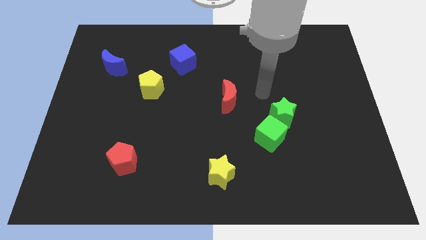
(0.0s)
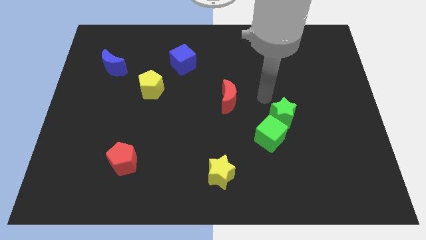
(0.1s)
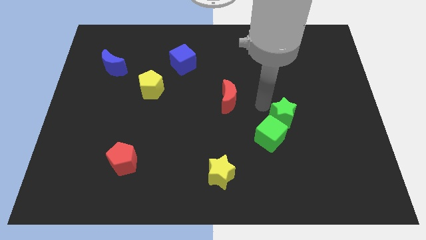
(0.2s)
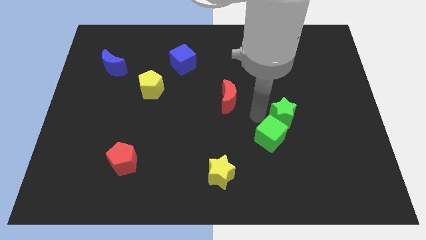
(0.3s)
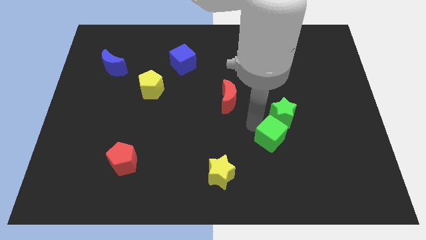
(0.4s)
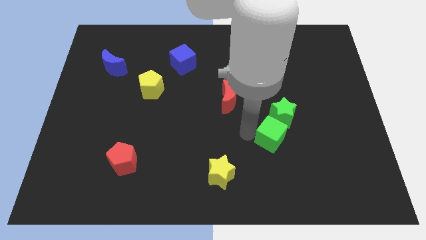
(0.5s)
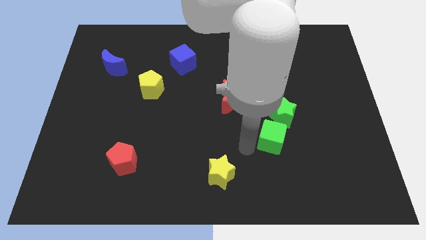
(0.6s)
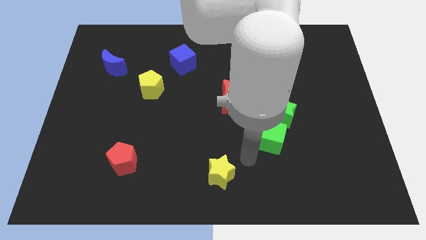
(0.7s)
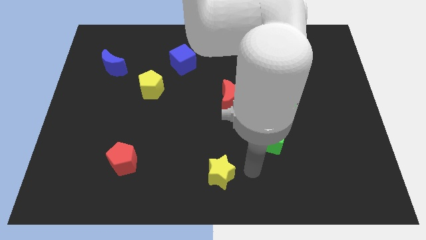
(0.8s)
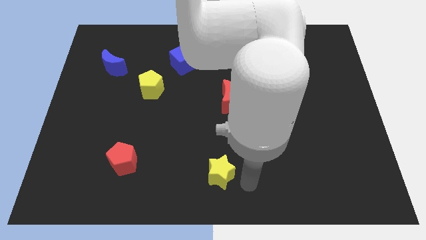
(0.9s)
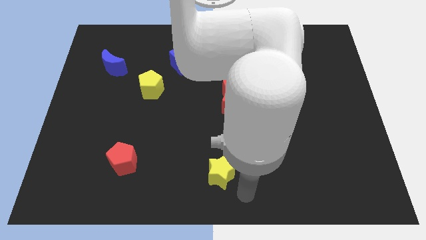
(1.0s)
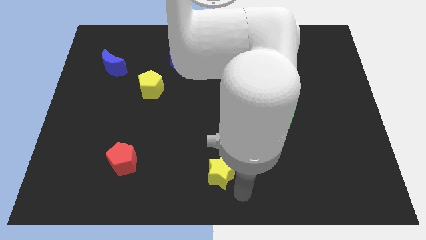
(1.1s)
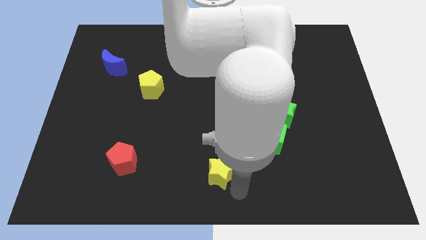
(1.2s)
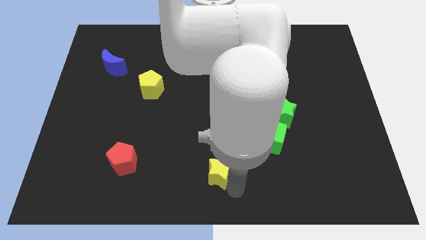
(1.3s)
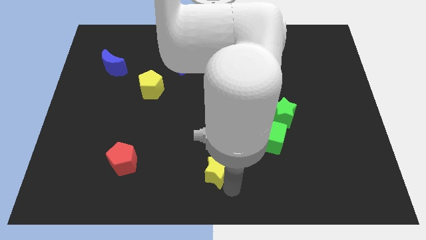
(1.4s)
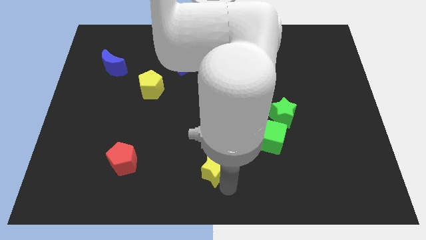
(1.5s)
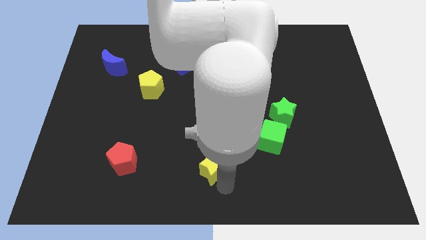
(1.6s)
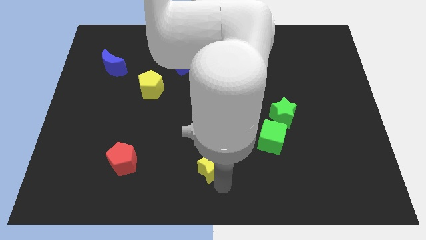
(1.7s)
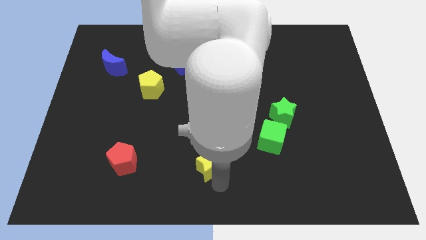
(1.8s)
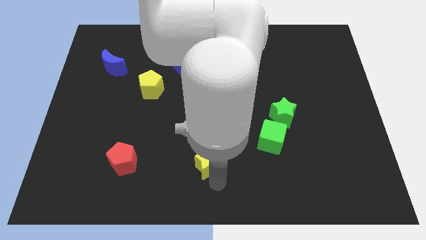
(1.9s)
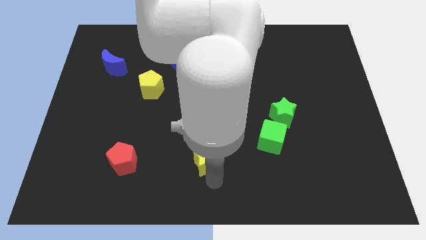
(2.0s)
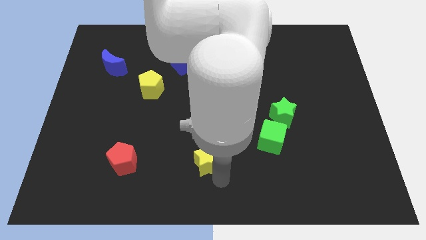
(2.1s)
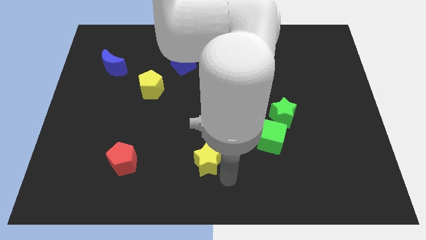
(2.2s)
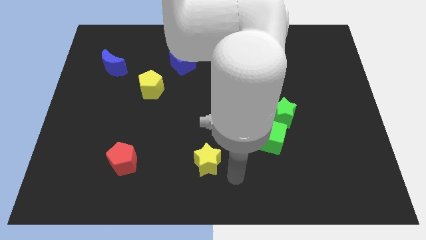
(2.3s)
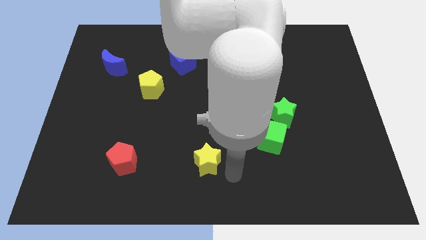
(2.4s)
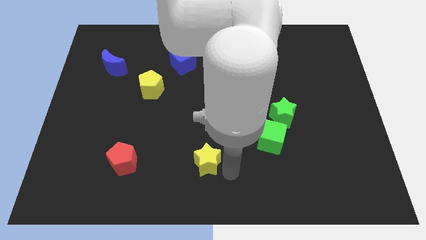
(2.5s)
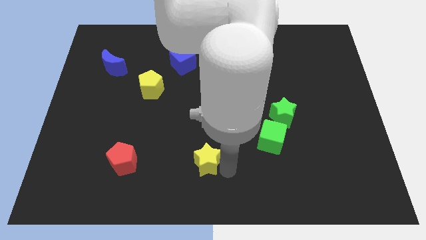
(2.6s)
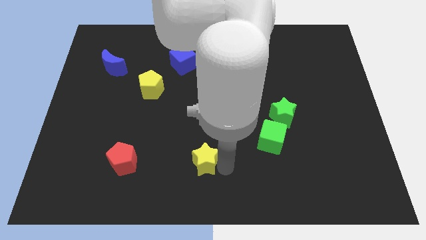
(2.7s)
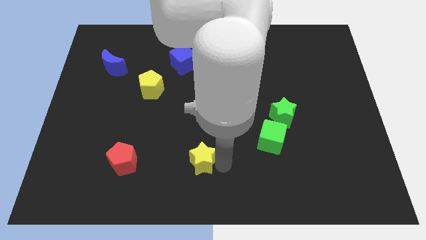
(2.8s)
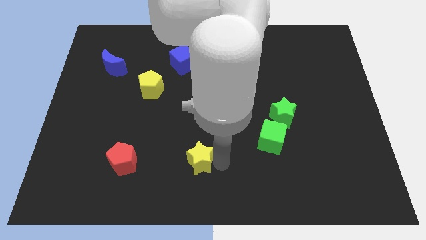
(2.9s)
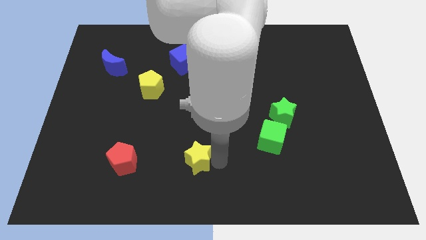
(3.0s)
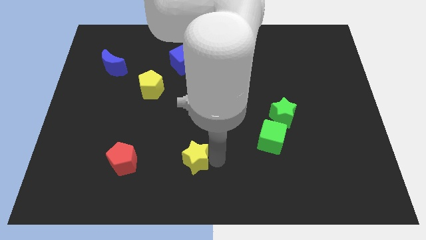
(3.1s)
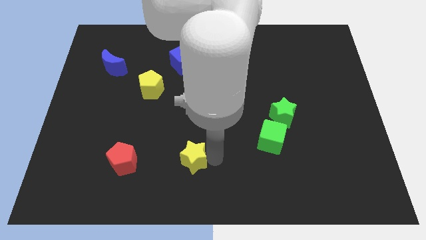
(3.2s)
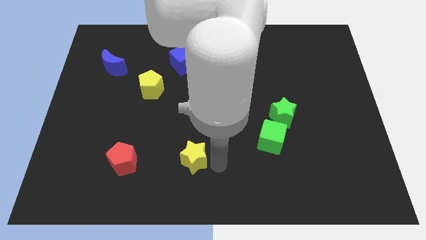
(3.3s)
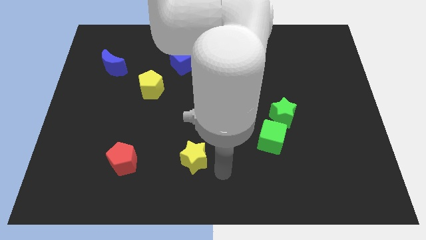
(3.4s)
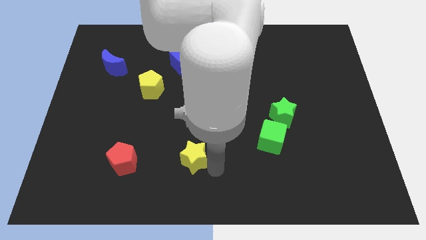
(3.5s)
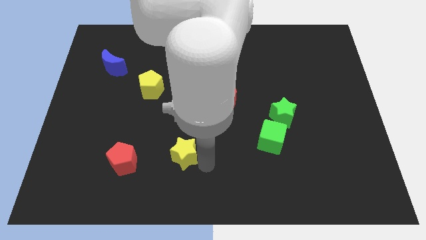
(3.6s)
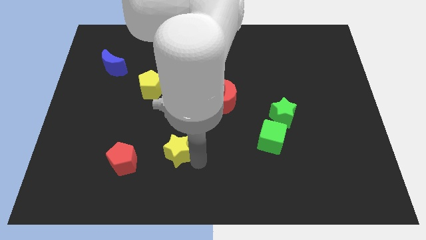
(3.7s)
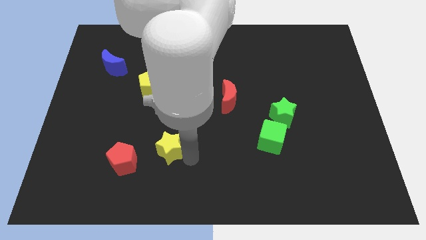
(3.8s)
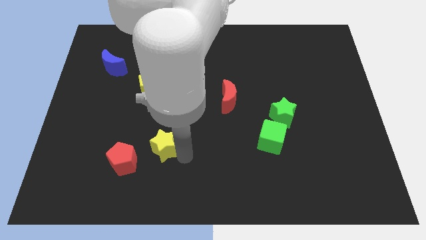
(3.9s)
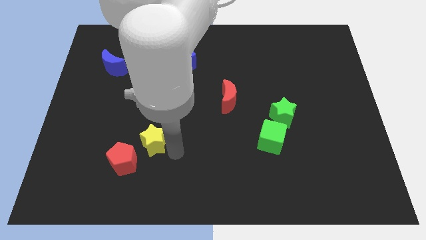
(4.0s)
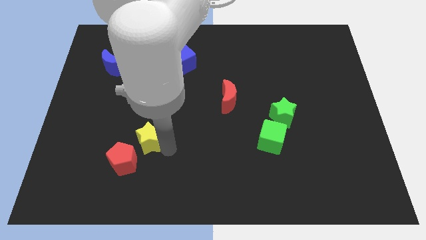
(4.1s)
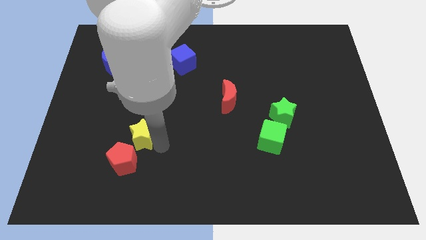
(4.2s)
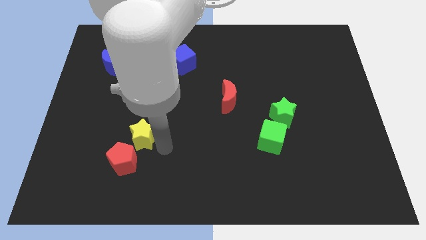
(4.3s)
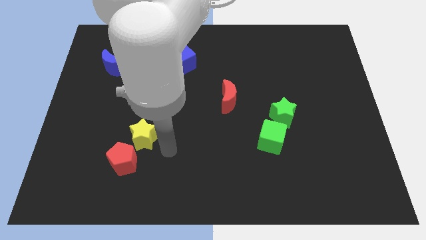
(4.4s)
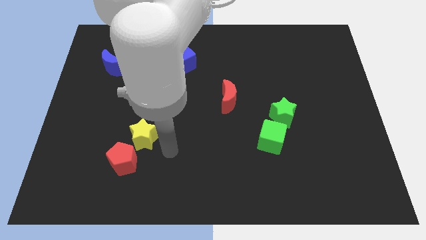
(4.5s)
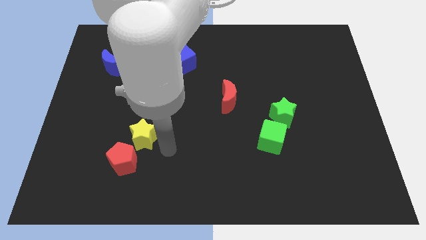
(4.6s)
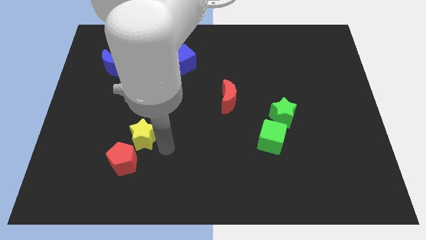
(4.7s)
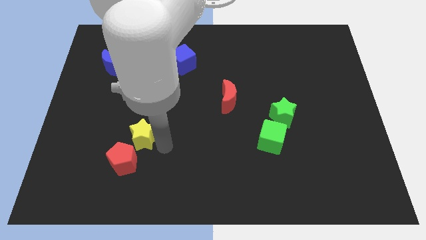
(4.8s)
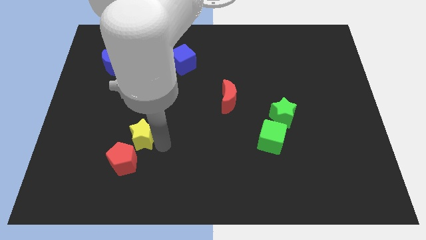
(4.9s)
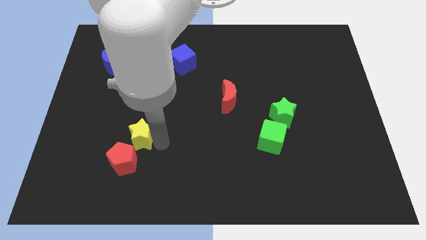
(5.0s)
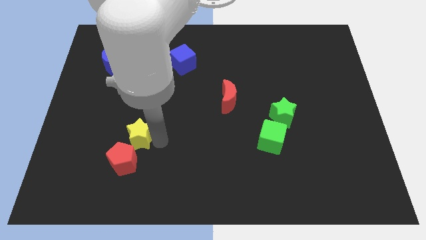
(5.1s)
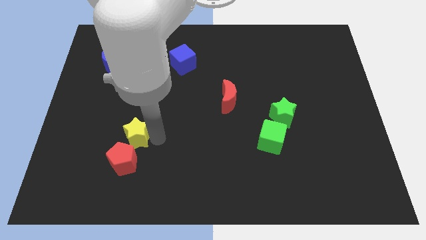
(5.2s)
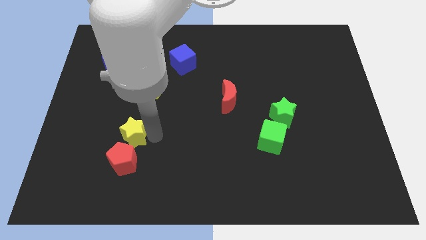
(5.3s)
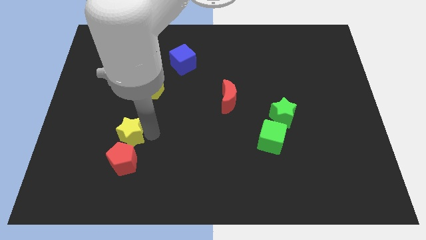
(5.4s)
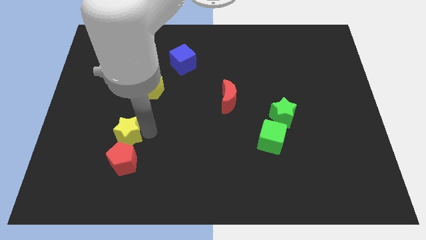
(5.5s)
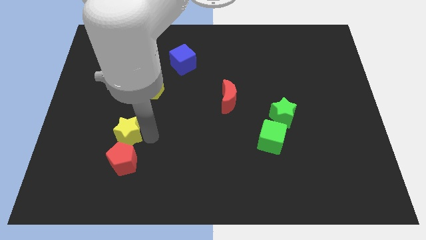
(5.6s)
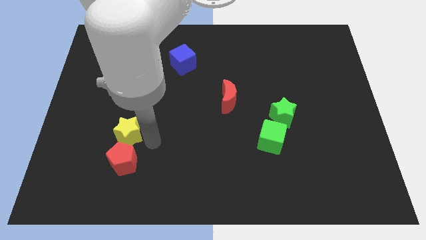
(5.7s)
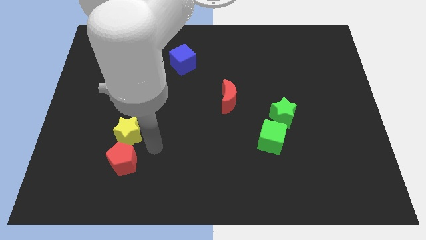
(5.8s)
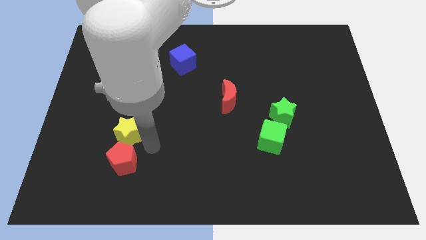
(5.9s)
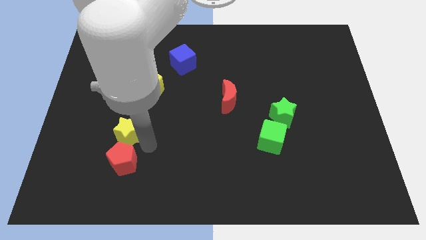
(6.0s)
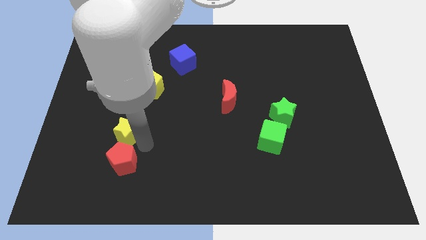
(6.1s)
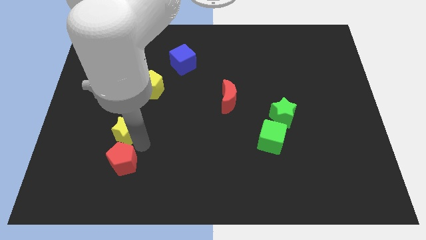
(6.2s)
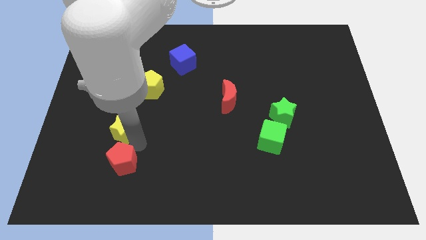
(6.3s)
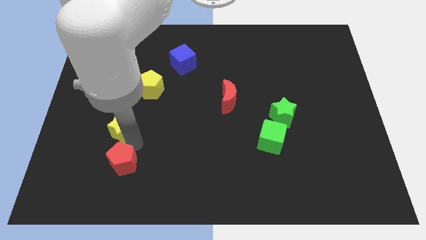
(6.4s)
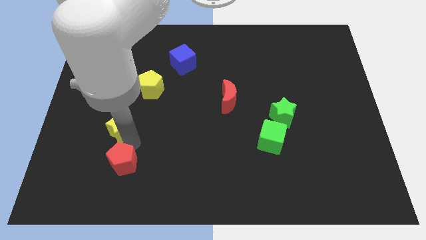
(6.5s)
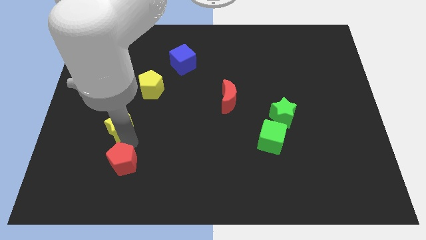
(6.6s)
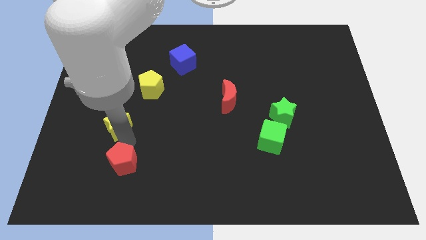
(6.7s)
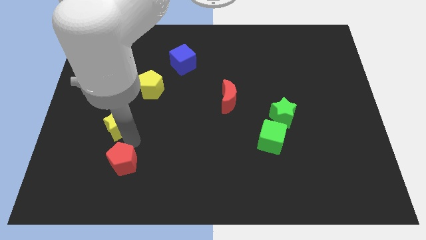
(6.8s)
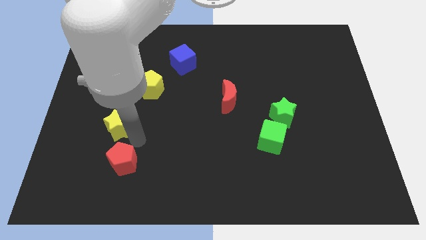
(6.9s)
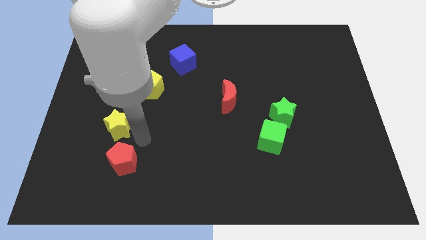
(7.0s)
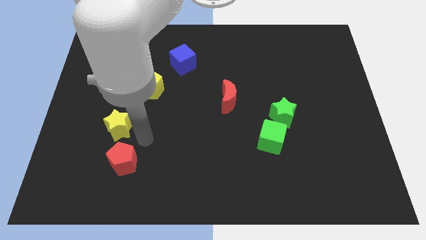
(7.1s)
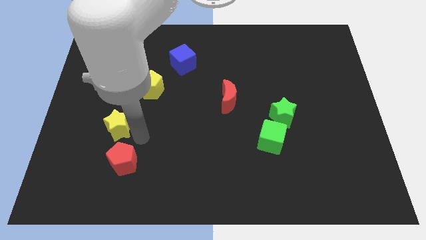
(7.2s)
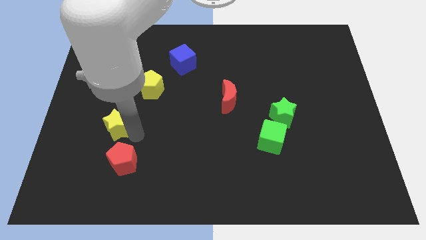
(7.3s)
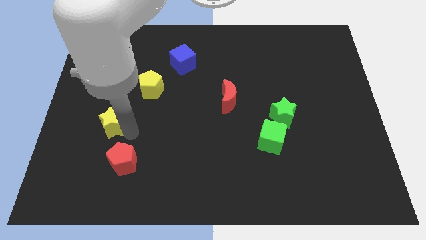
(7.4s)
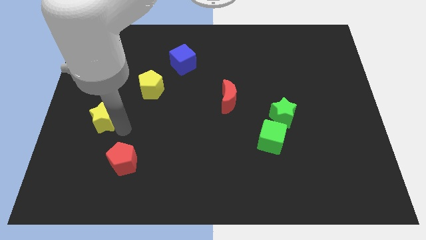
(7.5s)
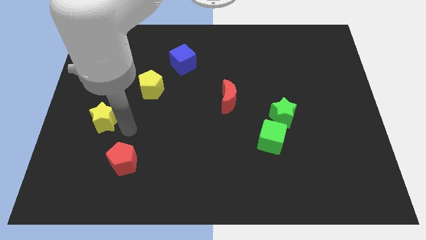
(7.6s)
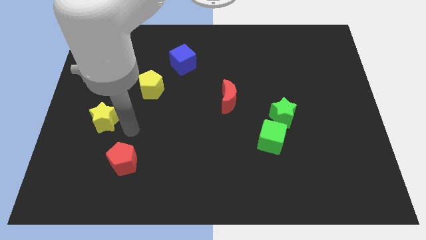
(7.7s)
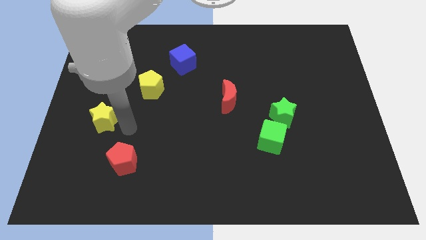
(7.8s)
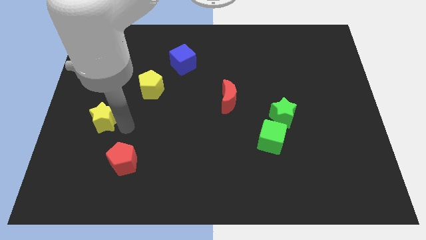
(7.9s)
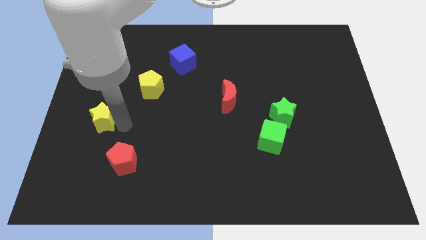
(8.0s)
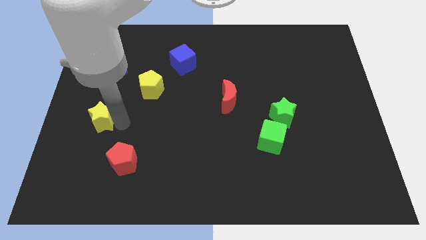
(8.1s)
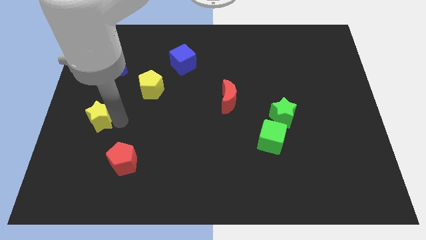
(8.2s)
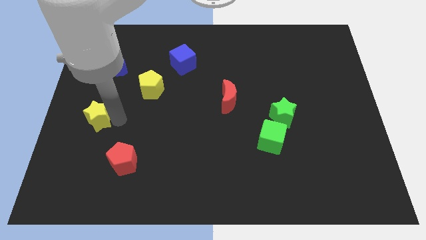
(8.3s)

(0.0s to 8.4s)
move the yellow star to the left side
